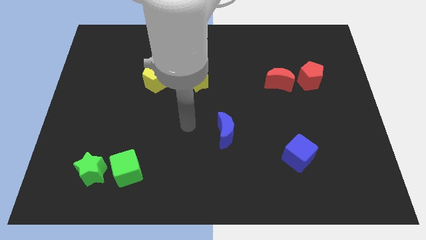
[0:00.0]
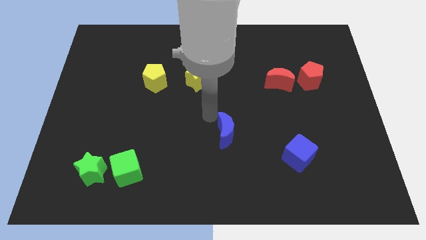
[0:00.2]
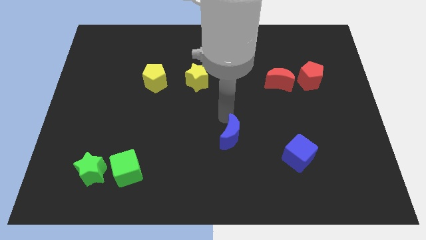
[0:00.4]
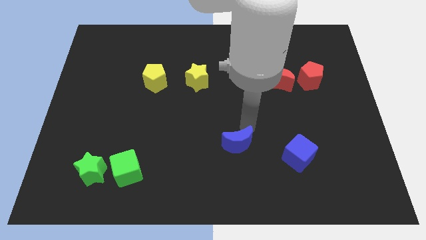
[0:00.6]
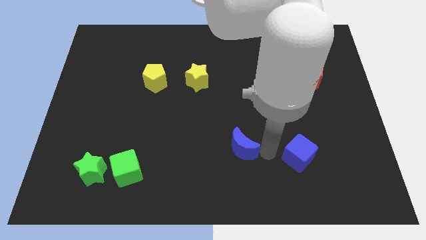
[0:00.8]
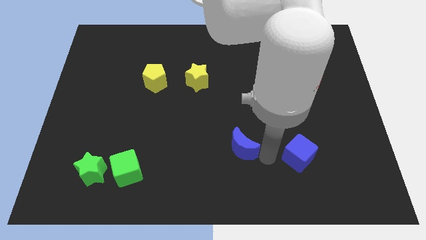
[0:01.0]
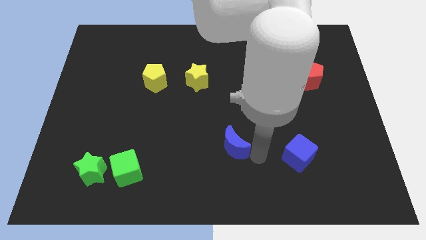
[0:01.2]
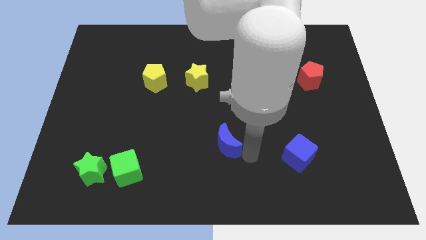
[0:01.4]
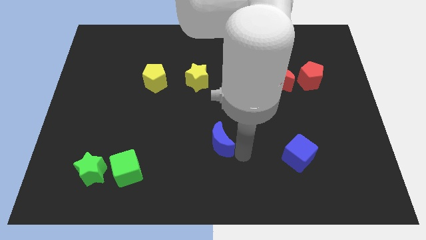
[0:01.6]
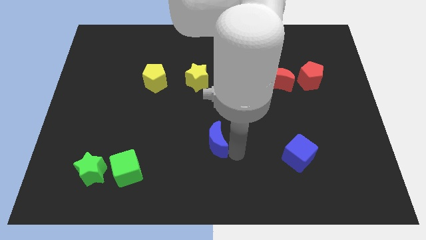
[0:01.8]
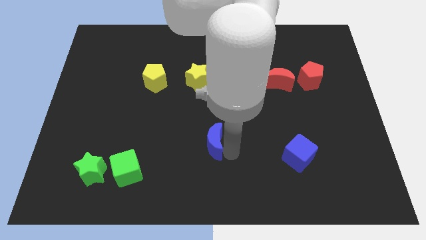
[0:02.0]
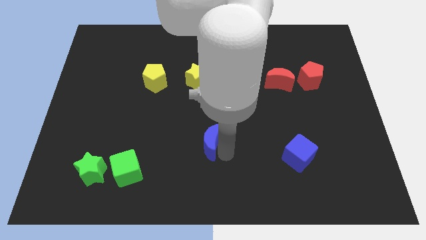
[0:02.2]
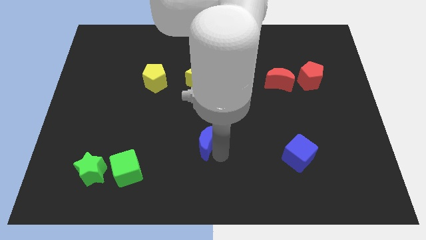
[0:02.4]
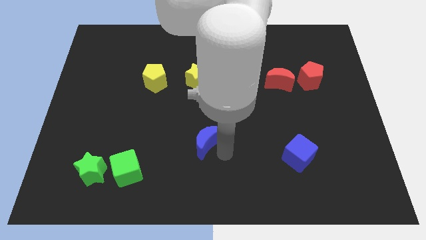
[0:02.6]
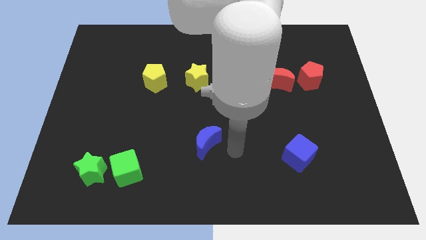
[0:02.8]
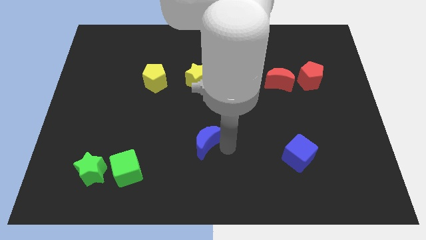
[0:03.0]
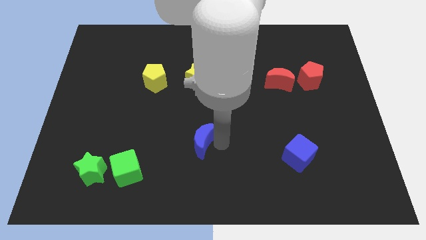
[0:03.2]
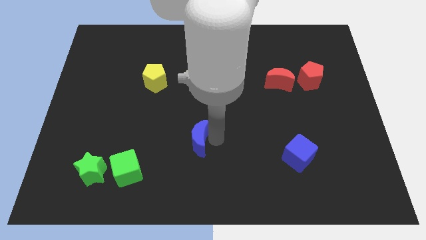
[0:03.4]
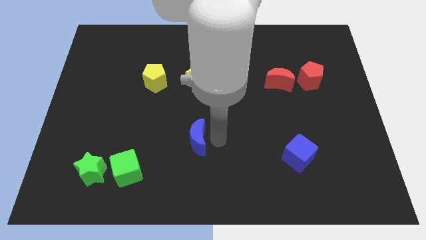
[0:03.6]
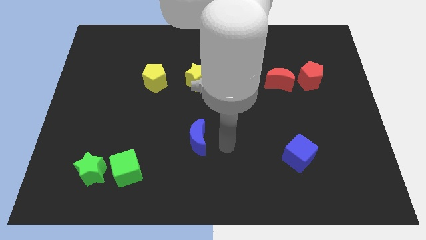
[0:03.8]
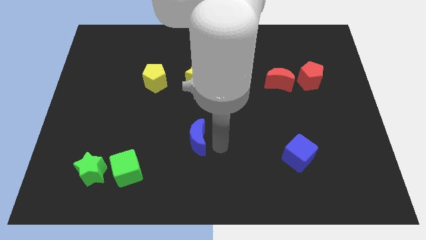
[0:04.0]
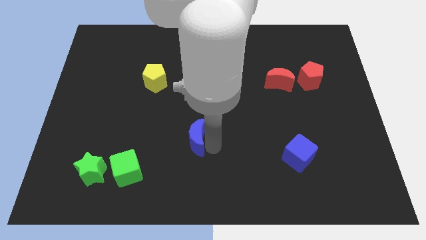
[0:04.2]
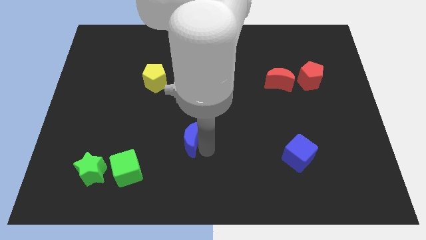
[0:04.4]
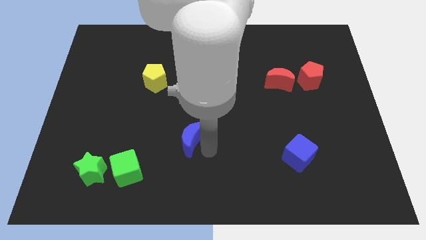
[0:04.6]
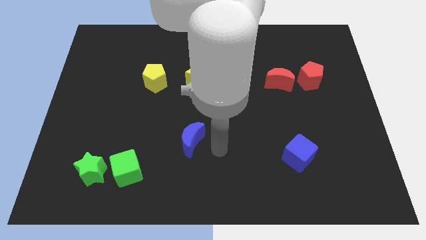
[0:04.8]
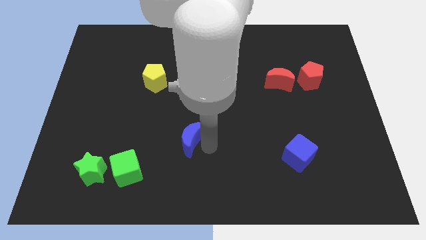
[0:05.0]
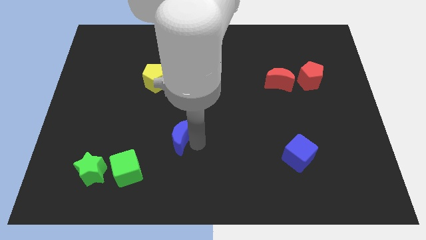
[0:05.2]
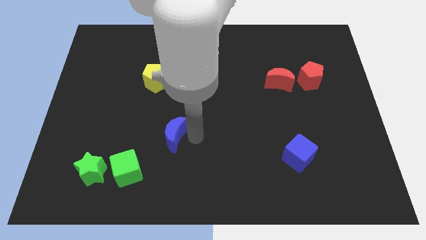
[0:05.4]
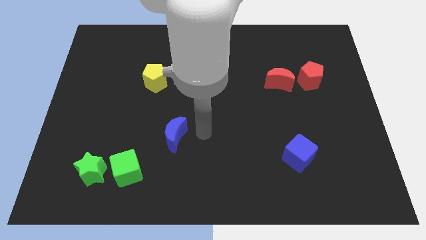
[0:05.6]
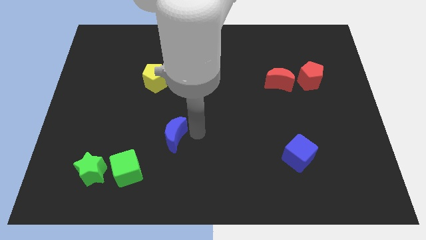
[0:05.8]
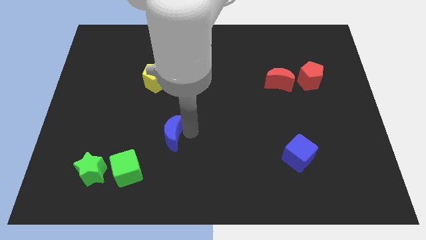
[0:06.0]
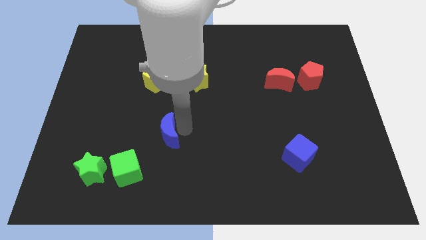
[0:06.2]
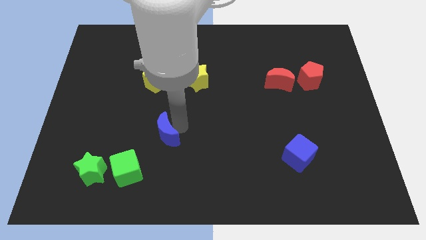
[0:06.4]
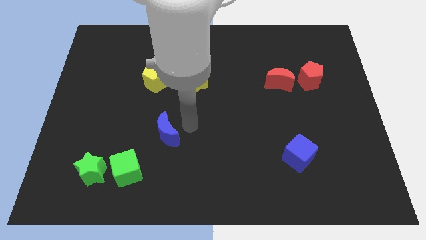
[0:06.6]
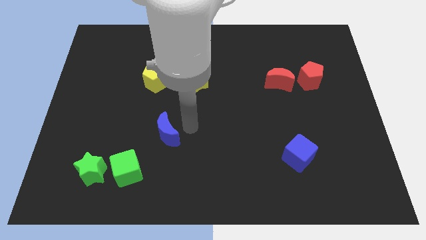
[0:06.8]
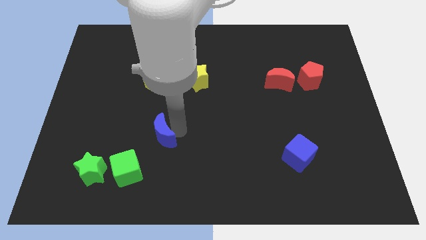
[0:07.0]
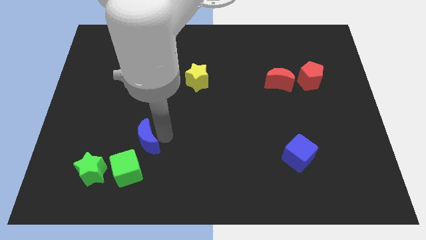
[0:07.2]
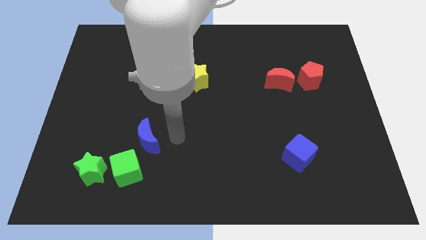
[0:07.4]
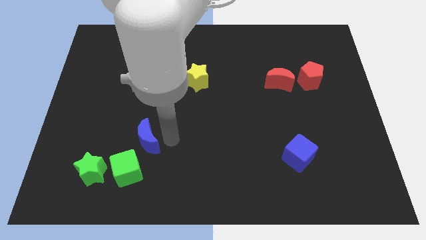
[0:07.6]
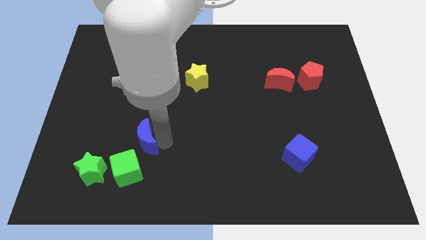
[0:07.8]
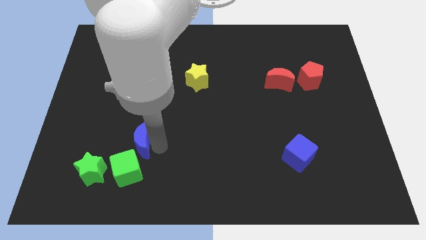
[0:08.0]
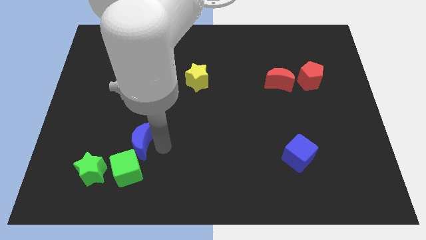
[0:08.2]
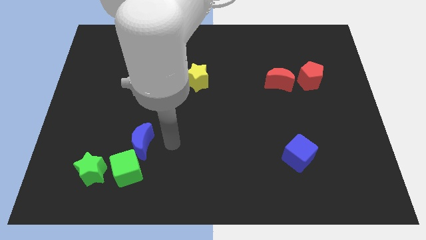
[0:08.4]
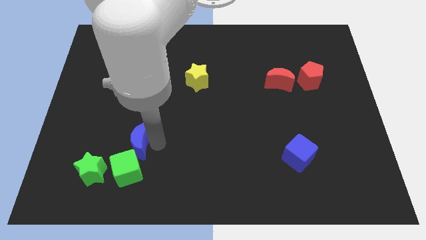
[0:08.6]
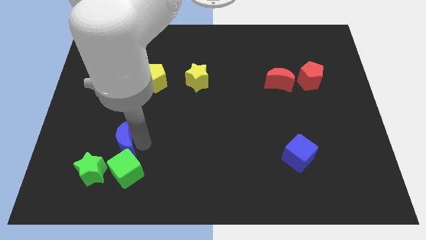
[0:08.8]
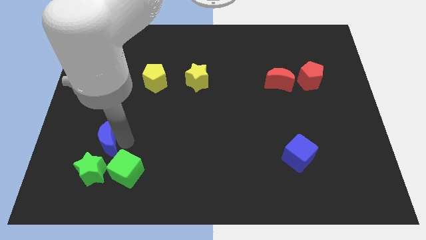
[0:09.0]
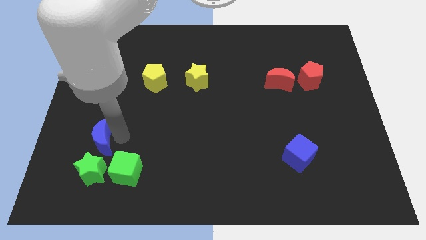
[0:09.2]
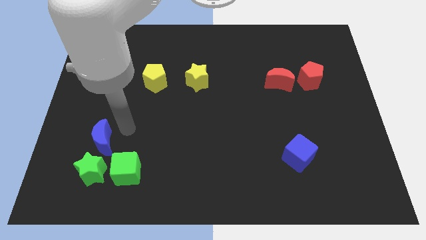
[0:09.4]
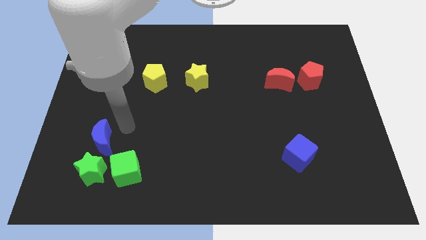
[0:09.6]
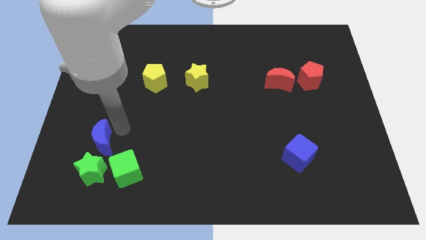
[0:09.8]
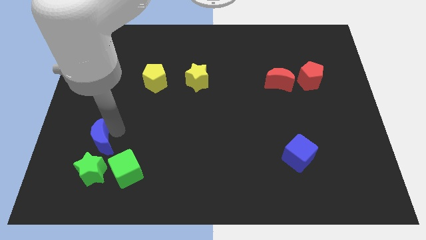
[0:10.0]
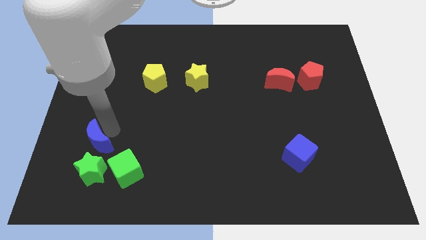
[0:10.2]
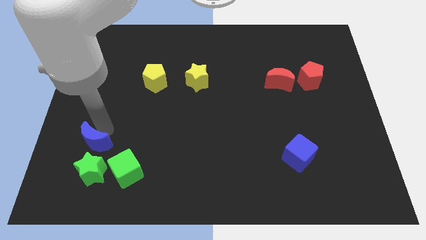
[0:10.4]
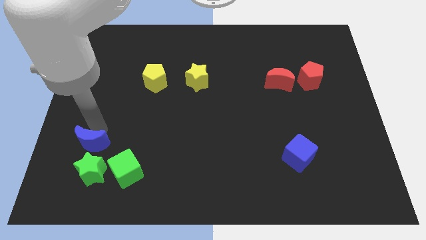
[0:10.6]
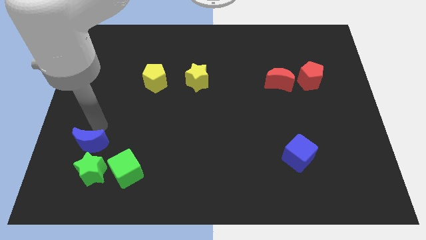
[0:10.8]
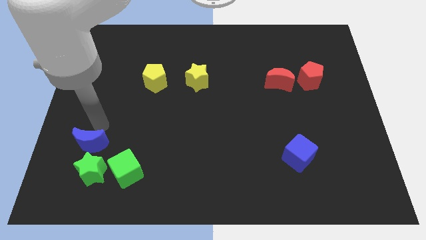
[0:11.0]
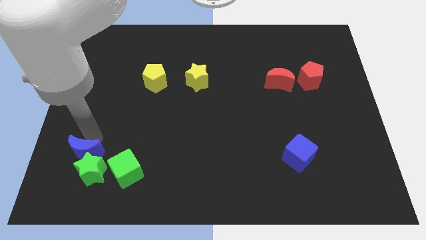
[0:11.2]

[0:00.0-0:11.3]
push the blue moon to the left side of the green cube

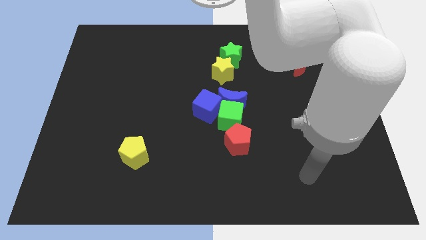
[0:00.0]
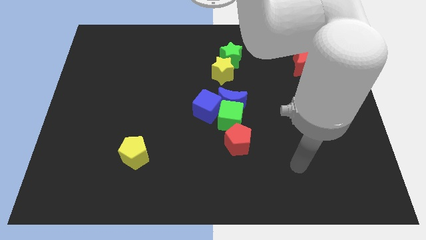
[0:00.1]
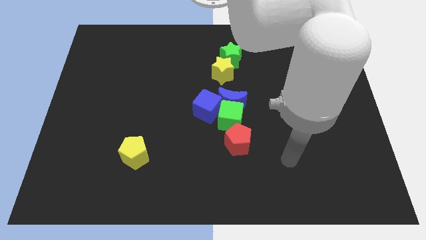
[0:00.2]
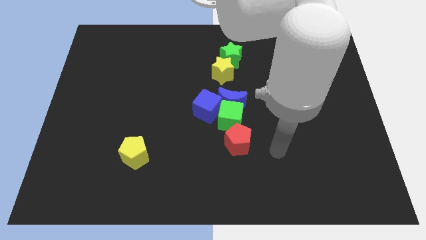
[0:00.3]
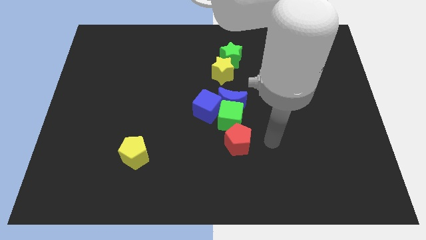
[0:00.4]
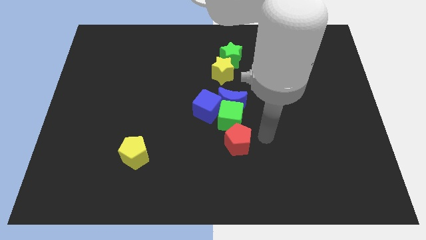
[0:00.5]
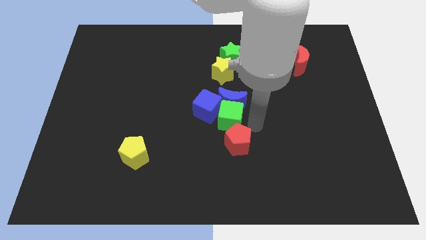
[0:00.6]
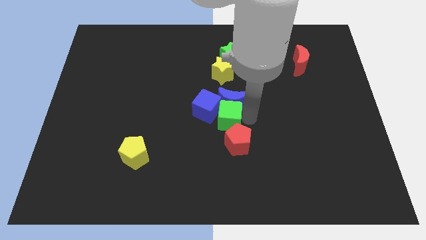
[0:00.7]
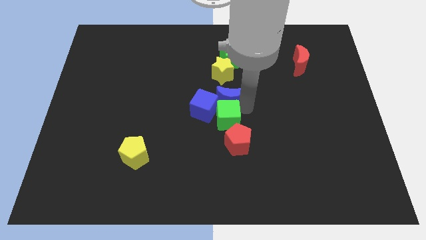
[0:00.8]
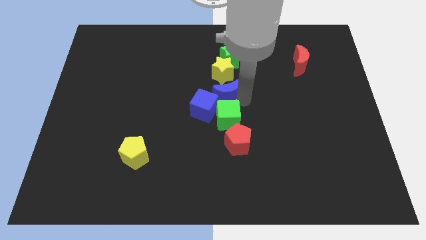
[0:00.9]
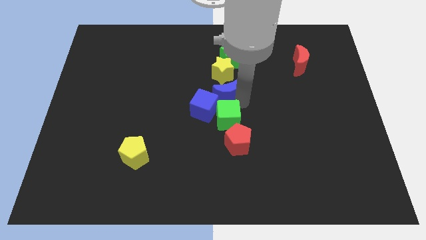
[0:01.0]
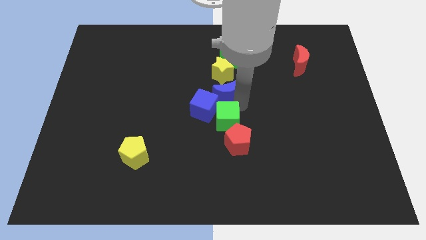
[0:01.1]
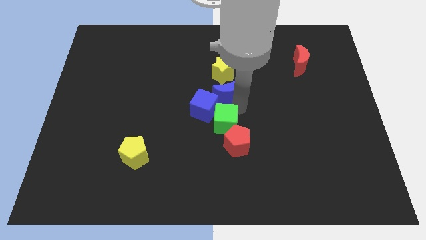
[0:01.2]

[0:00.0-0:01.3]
put the green cube to the bottom side of the blue cube

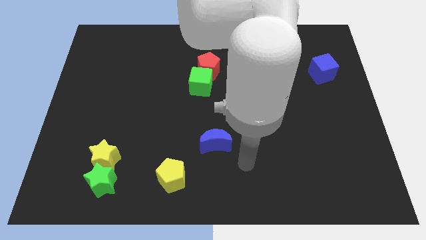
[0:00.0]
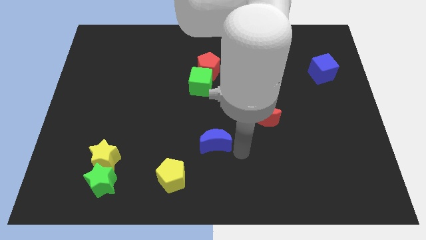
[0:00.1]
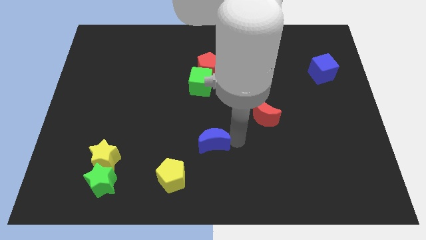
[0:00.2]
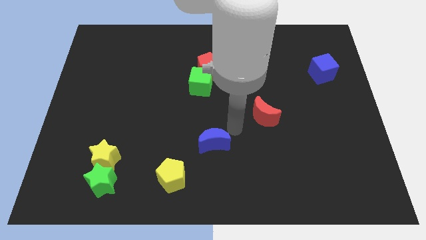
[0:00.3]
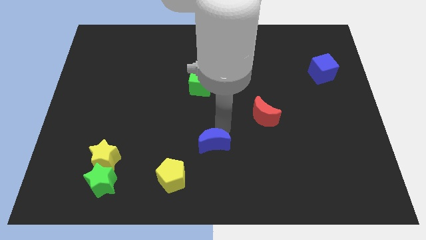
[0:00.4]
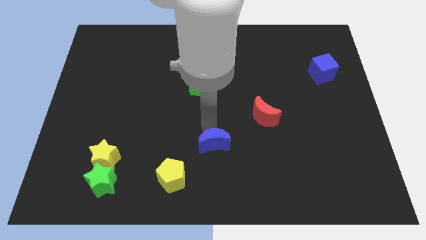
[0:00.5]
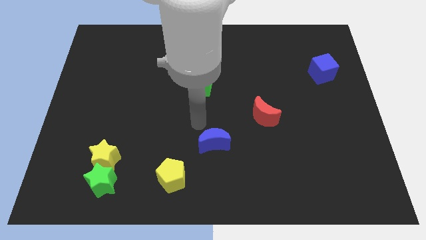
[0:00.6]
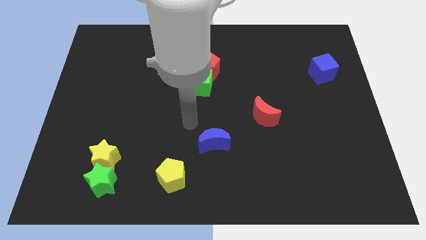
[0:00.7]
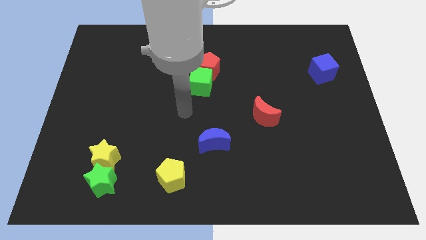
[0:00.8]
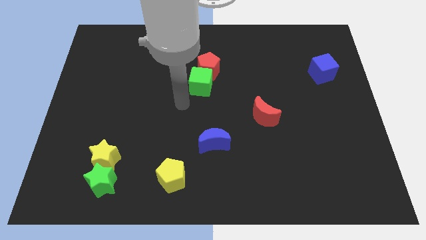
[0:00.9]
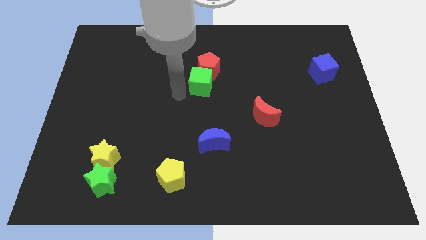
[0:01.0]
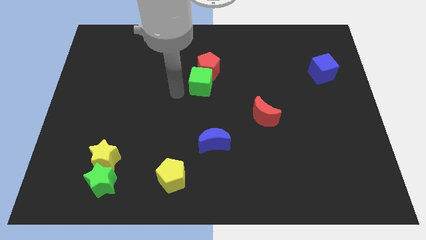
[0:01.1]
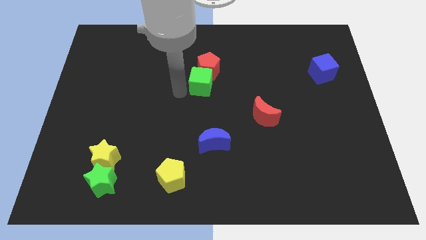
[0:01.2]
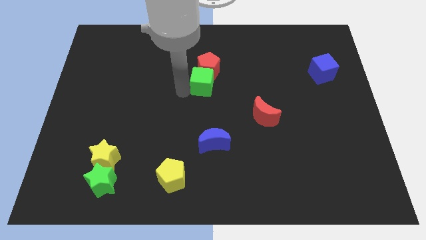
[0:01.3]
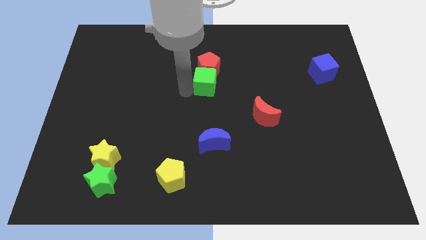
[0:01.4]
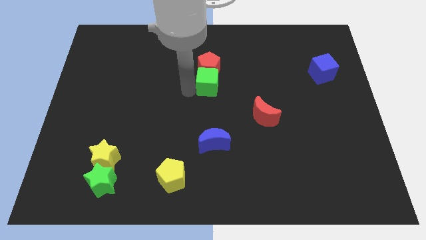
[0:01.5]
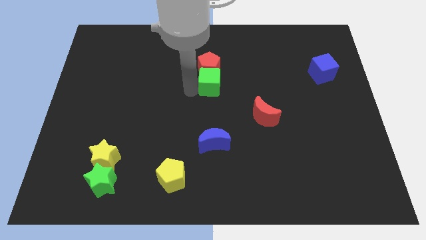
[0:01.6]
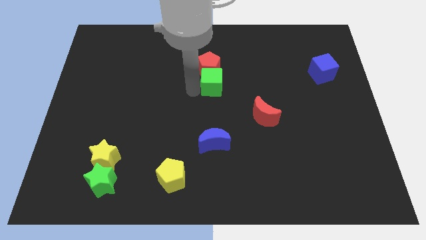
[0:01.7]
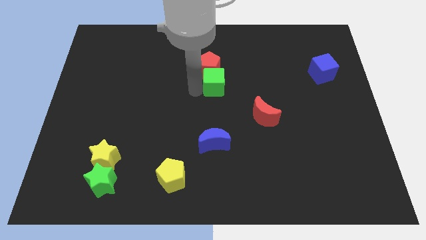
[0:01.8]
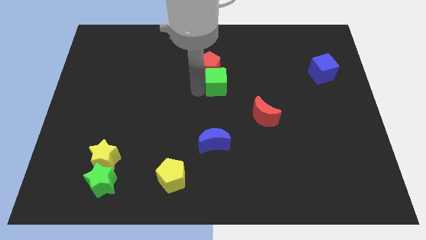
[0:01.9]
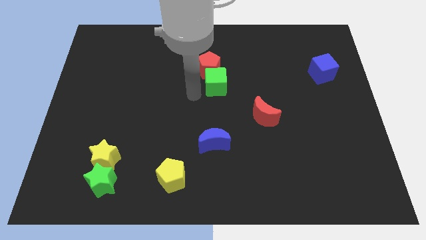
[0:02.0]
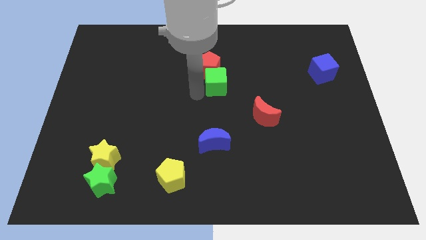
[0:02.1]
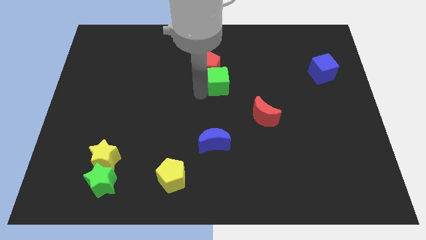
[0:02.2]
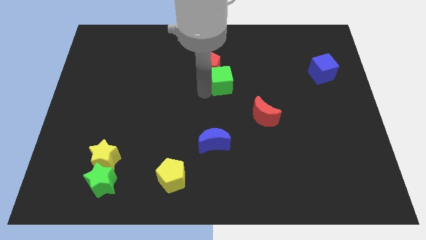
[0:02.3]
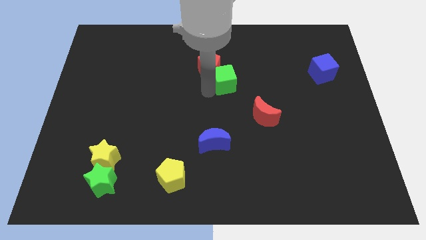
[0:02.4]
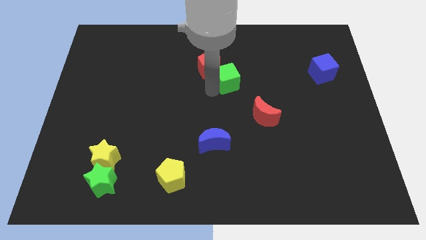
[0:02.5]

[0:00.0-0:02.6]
put the green cube to the right of the red pentagon
